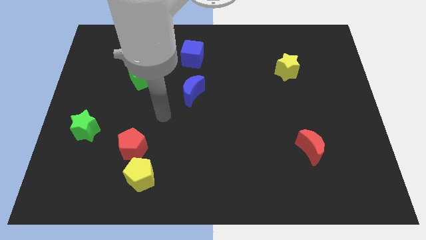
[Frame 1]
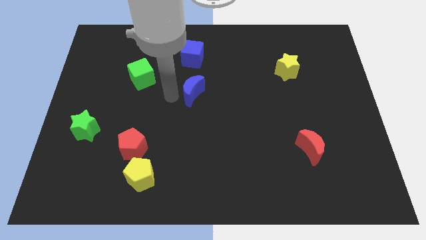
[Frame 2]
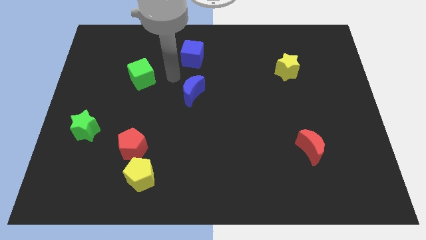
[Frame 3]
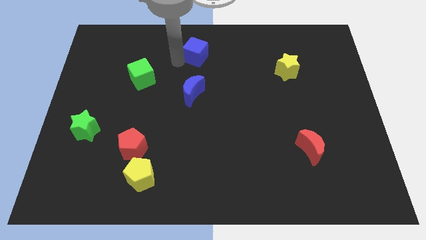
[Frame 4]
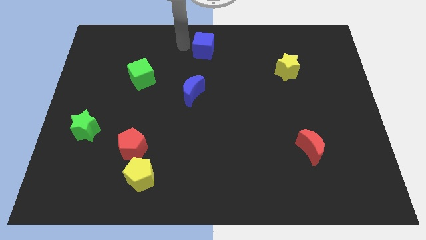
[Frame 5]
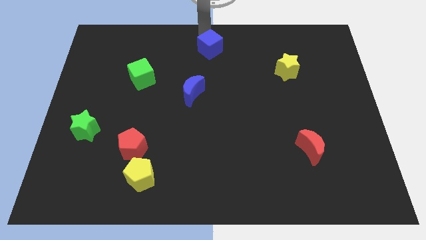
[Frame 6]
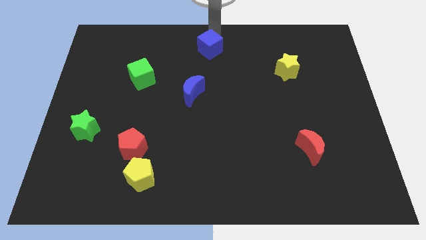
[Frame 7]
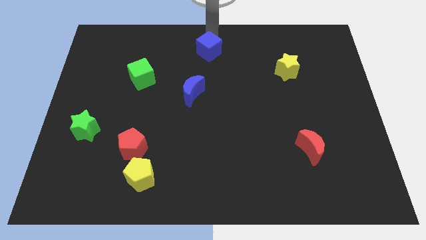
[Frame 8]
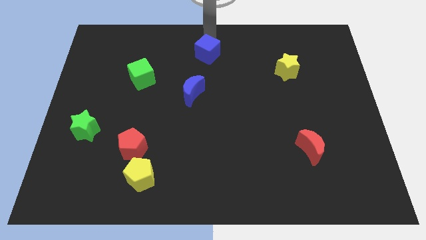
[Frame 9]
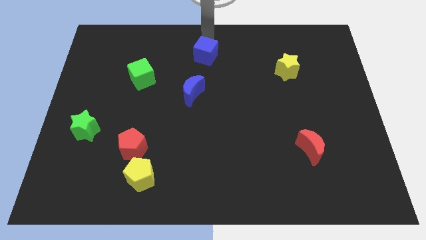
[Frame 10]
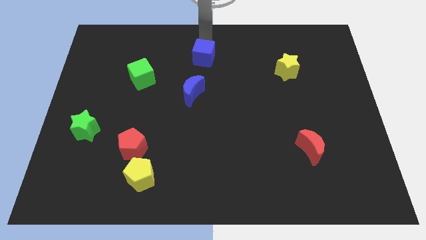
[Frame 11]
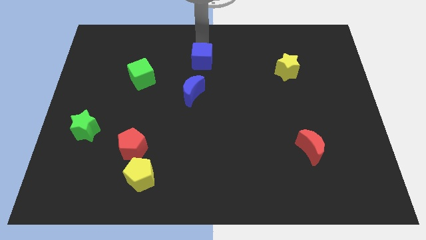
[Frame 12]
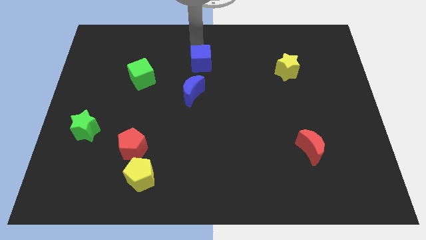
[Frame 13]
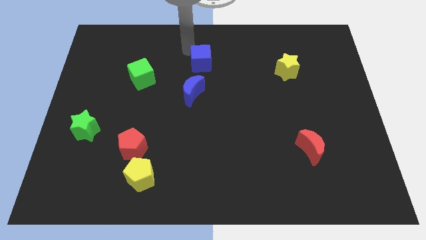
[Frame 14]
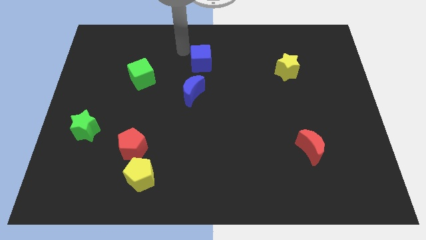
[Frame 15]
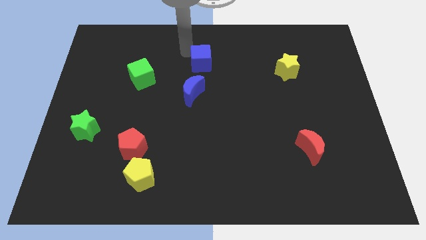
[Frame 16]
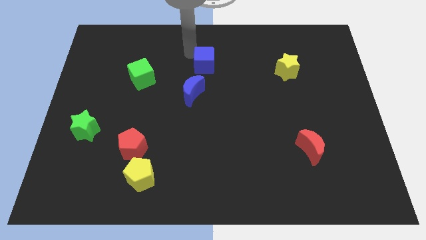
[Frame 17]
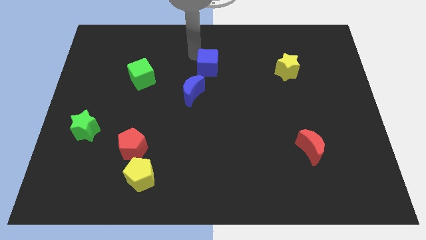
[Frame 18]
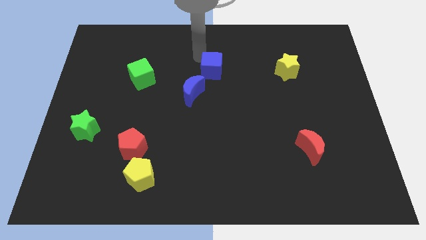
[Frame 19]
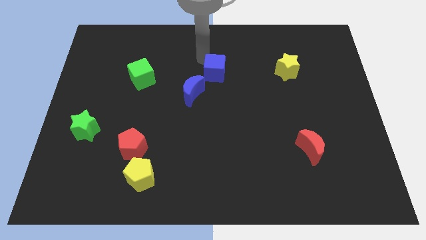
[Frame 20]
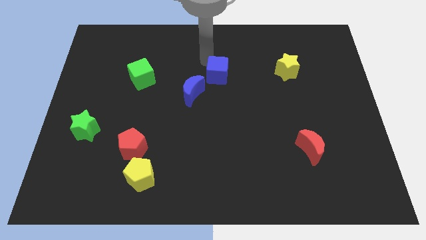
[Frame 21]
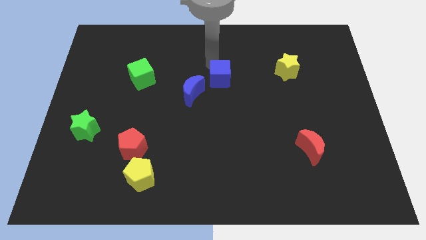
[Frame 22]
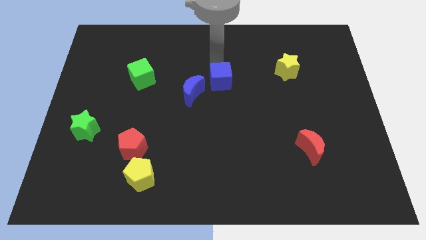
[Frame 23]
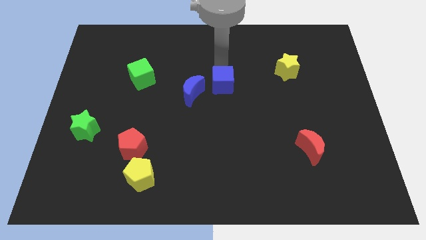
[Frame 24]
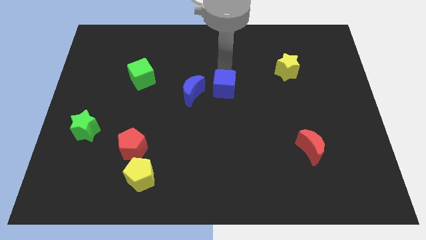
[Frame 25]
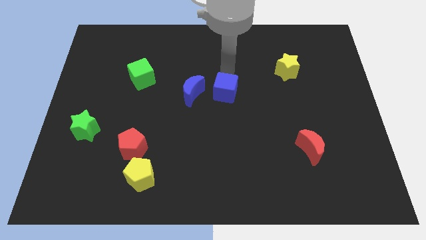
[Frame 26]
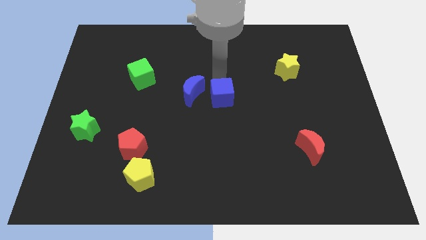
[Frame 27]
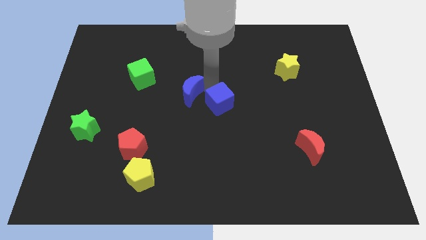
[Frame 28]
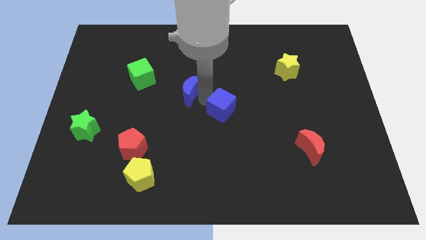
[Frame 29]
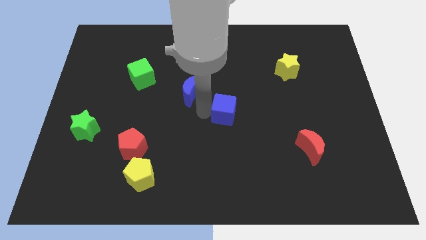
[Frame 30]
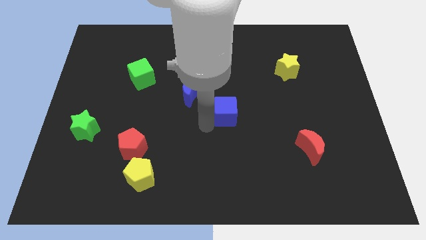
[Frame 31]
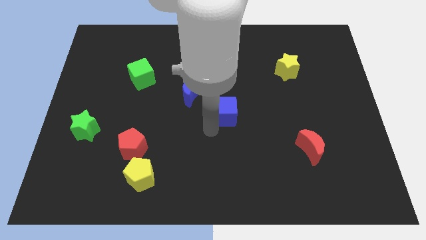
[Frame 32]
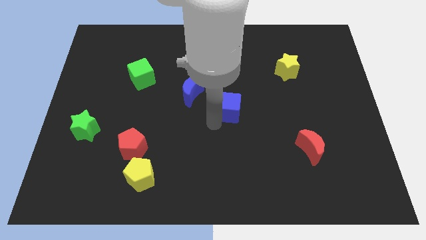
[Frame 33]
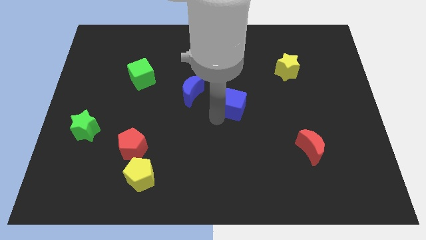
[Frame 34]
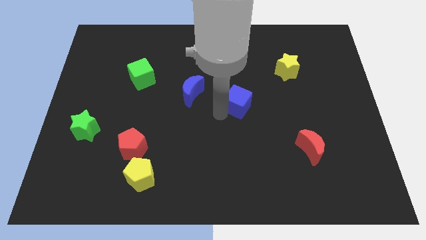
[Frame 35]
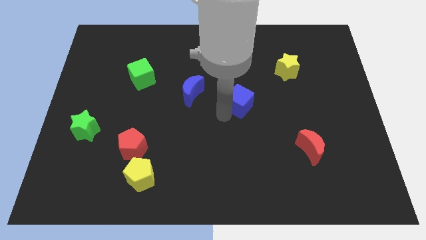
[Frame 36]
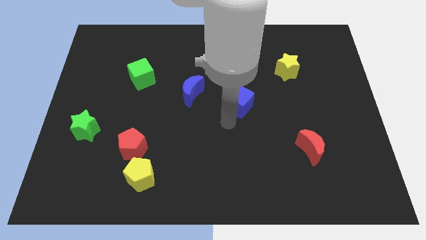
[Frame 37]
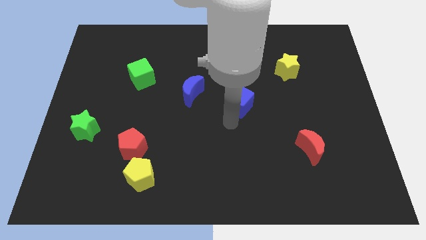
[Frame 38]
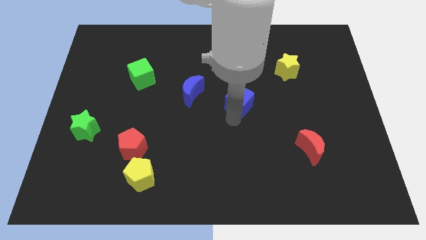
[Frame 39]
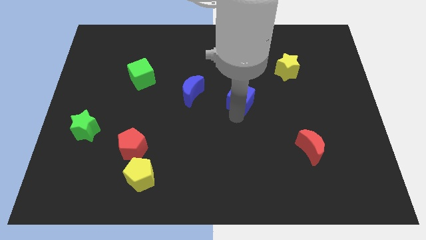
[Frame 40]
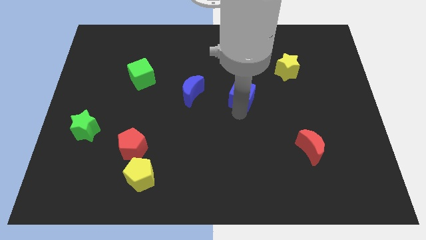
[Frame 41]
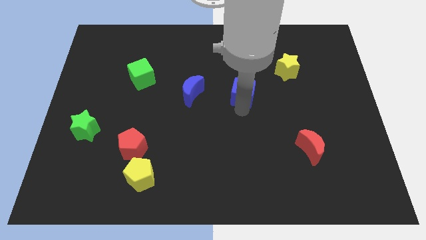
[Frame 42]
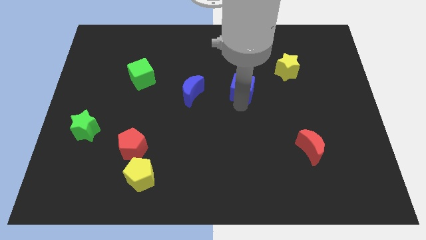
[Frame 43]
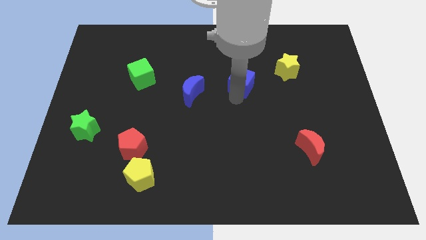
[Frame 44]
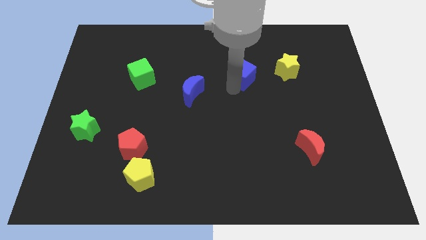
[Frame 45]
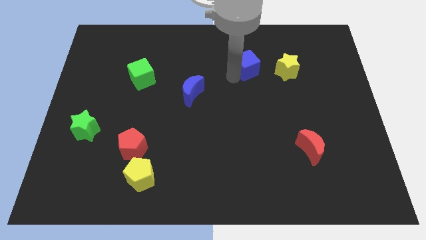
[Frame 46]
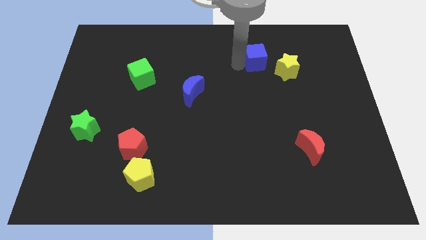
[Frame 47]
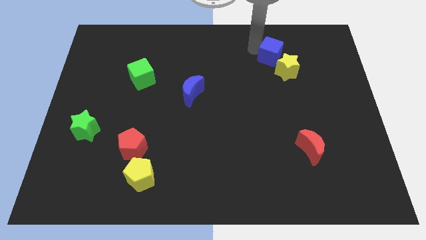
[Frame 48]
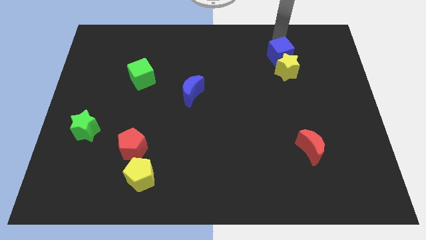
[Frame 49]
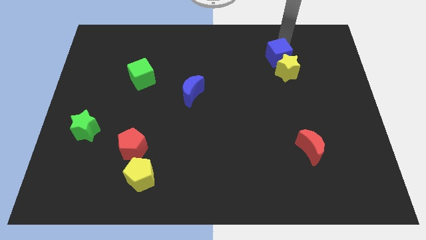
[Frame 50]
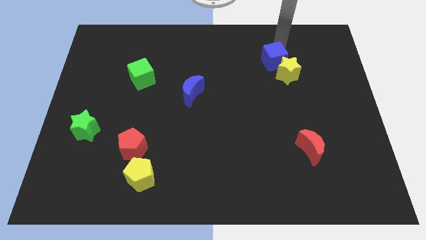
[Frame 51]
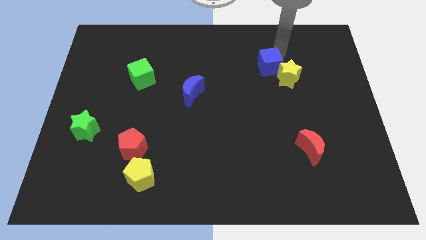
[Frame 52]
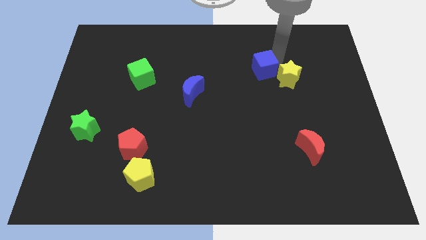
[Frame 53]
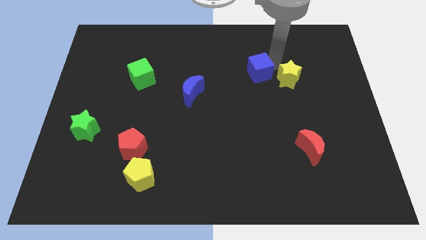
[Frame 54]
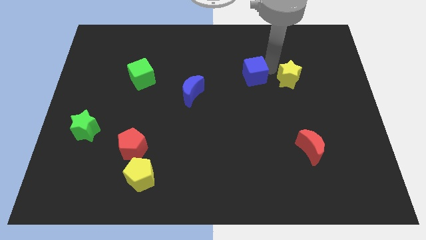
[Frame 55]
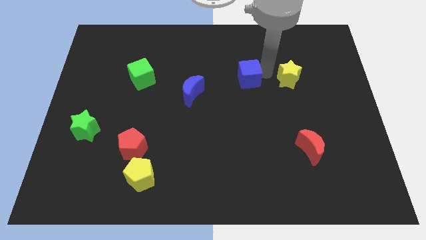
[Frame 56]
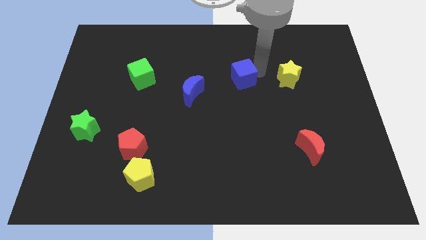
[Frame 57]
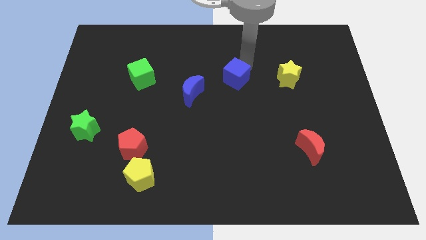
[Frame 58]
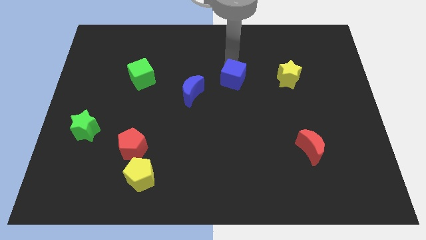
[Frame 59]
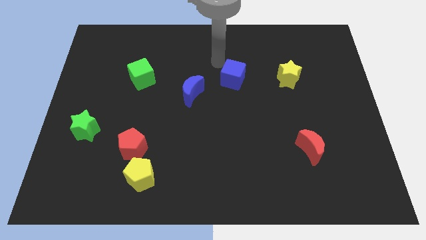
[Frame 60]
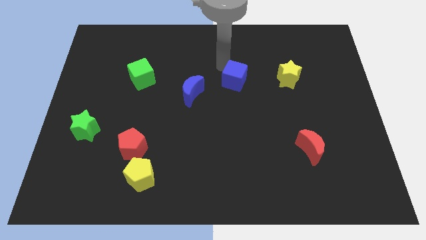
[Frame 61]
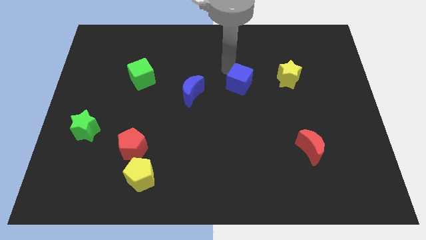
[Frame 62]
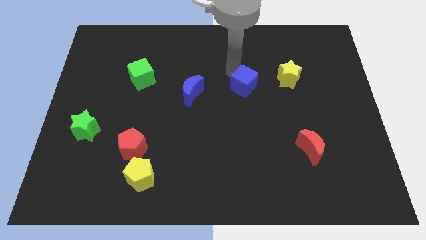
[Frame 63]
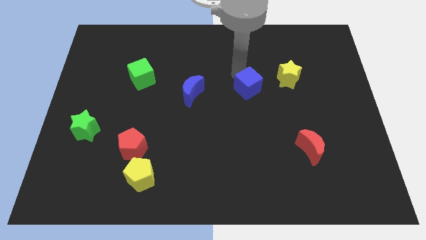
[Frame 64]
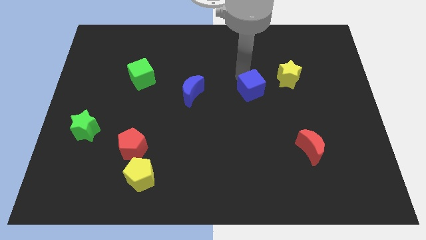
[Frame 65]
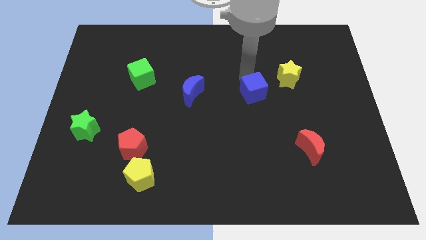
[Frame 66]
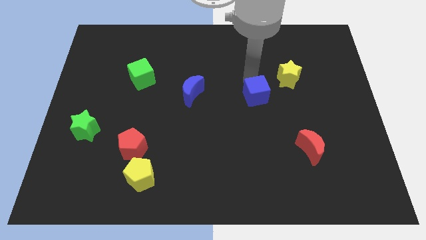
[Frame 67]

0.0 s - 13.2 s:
move the blue cube down and then right

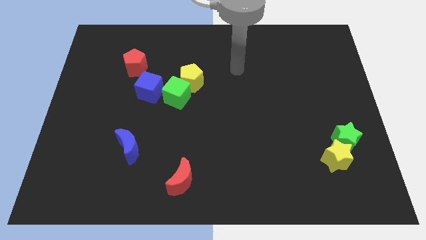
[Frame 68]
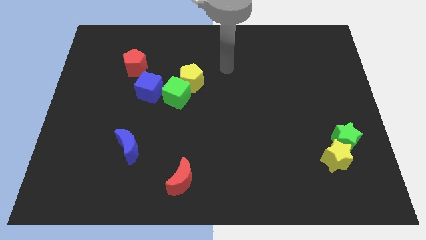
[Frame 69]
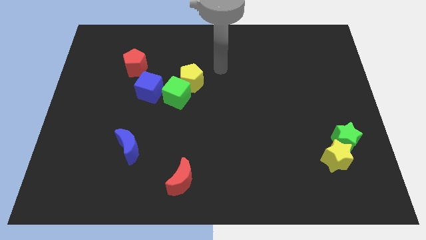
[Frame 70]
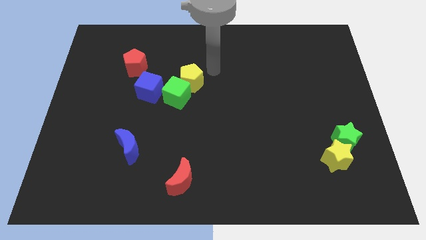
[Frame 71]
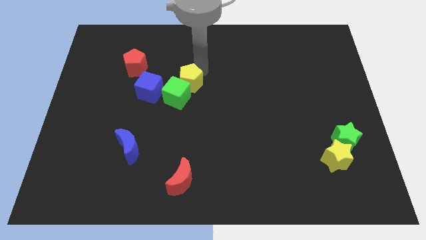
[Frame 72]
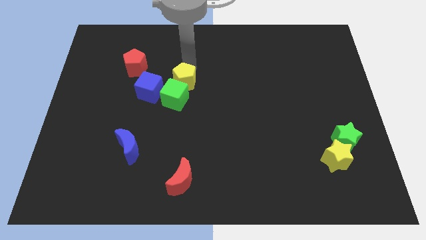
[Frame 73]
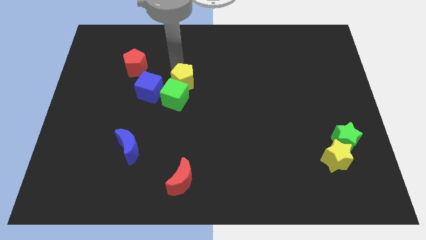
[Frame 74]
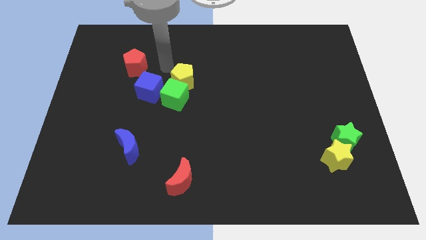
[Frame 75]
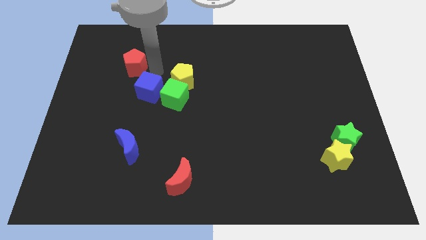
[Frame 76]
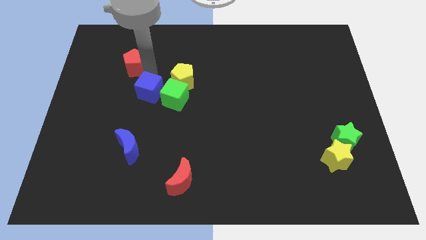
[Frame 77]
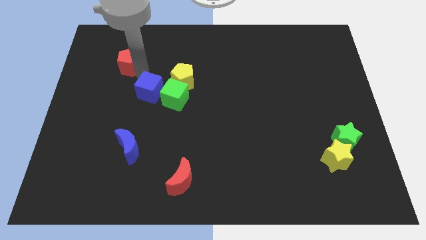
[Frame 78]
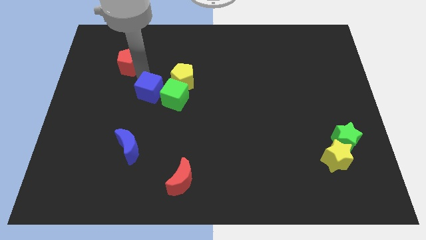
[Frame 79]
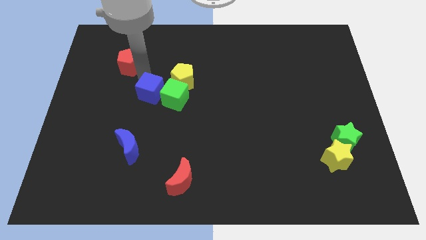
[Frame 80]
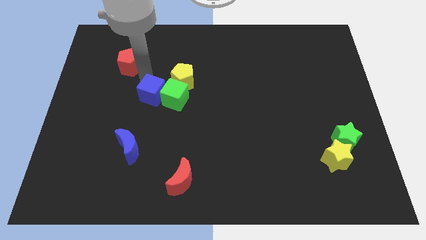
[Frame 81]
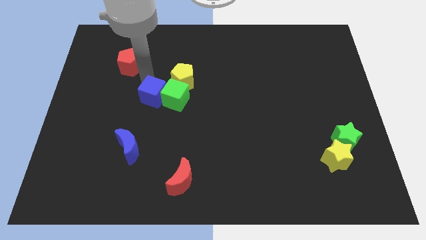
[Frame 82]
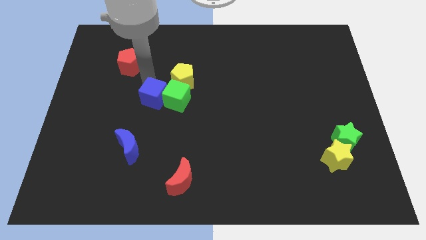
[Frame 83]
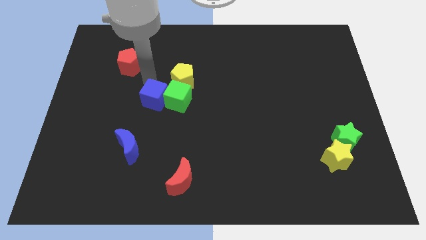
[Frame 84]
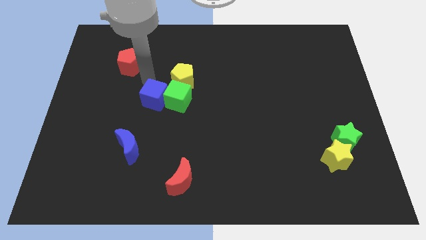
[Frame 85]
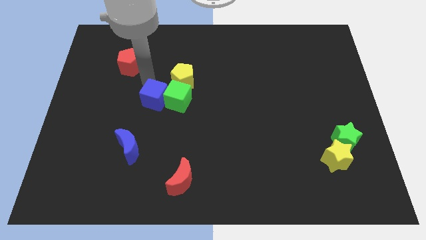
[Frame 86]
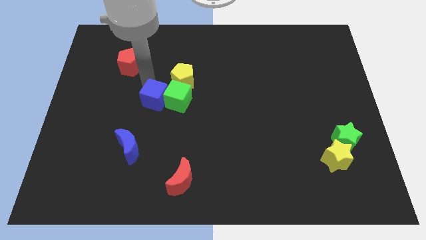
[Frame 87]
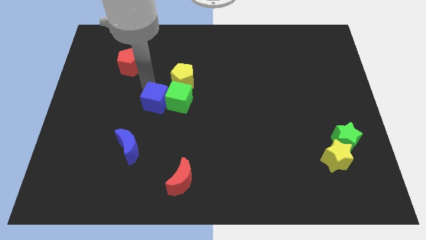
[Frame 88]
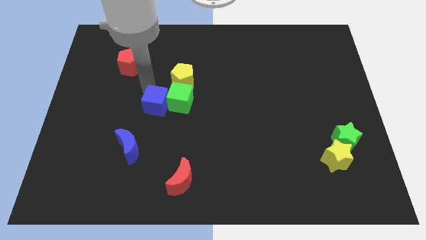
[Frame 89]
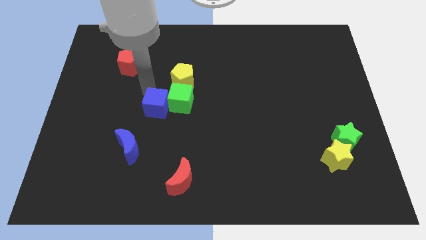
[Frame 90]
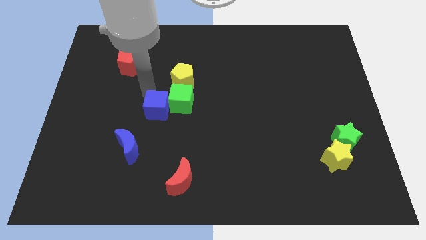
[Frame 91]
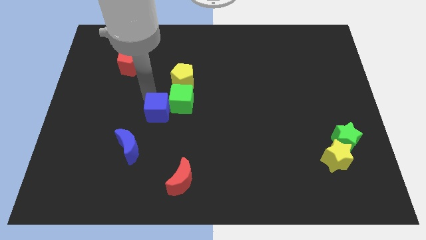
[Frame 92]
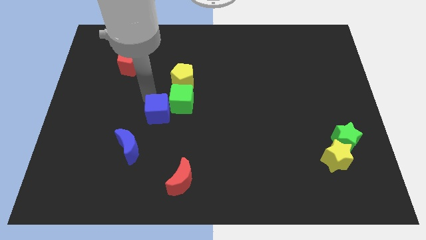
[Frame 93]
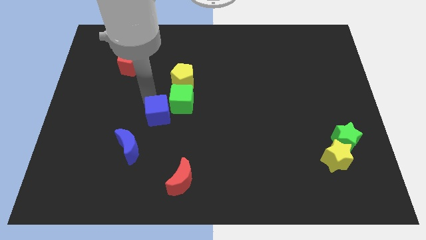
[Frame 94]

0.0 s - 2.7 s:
slightly push the blue cube down
